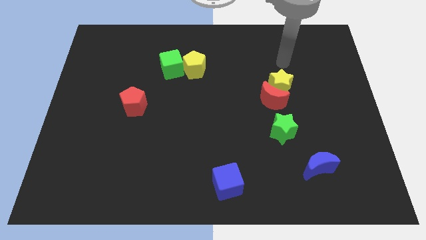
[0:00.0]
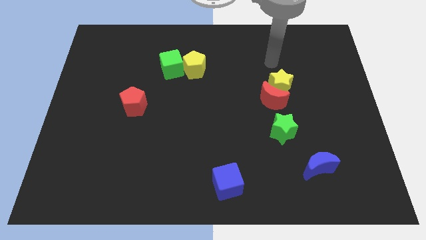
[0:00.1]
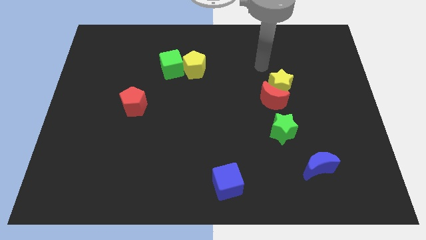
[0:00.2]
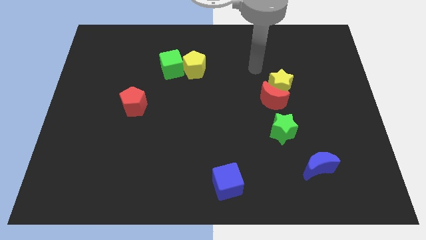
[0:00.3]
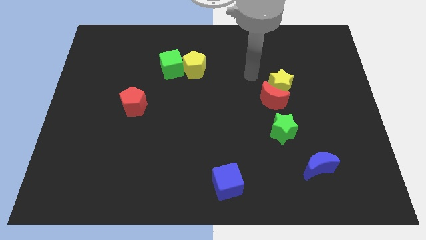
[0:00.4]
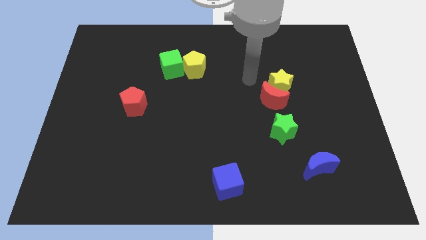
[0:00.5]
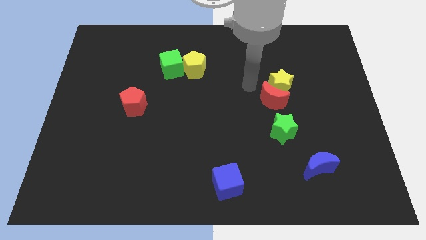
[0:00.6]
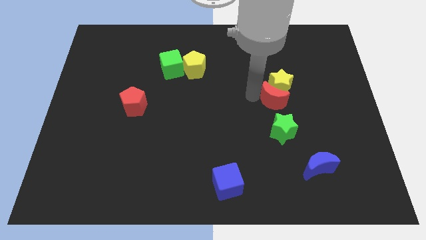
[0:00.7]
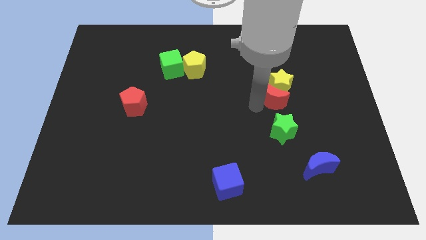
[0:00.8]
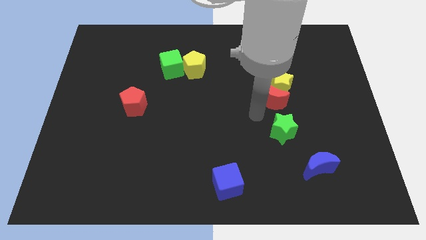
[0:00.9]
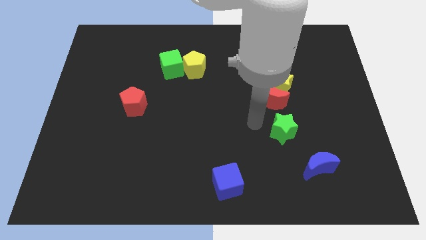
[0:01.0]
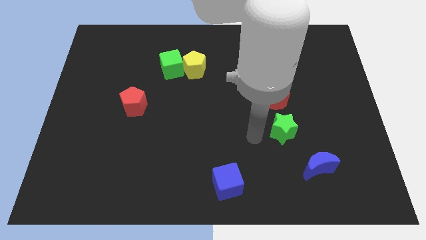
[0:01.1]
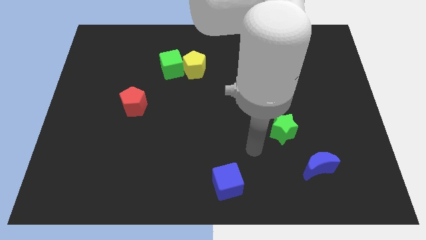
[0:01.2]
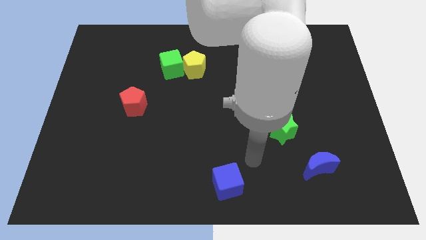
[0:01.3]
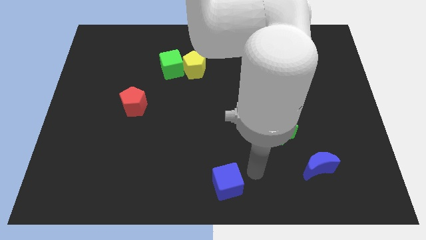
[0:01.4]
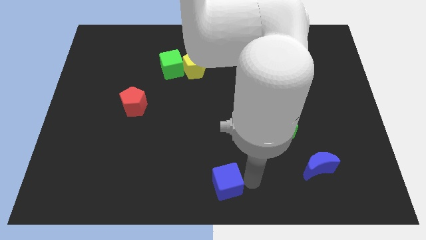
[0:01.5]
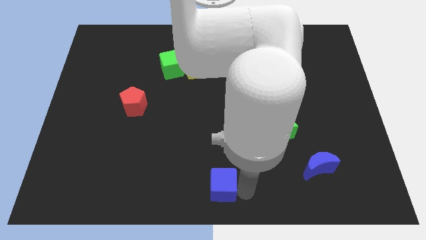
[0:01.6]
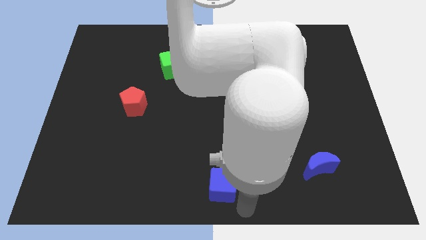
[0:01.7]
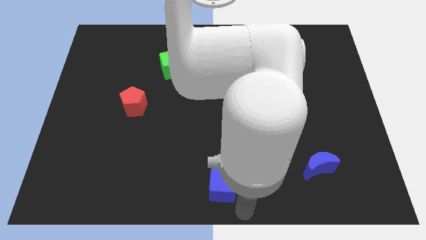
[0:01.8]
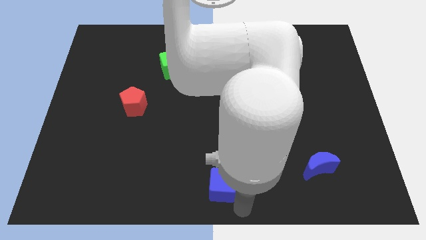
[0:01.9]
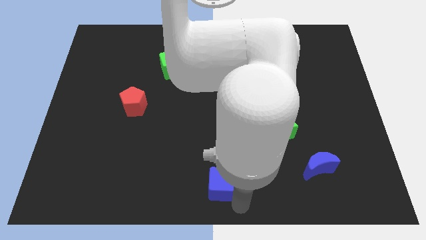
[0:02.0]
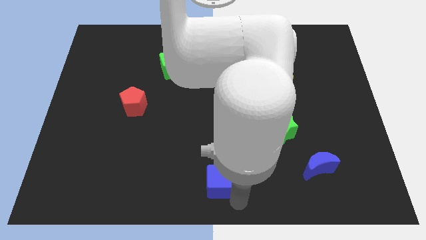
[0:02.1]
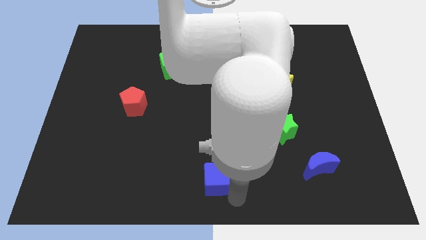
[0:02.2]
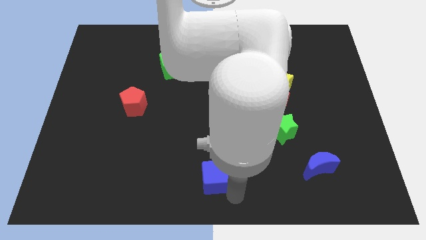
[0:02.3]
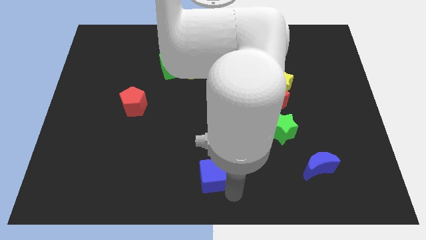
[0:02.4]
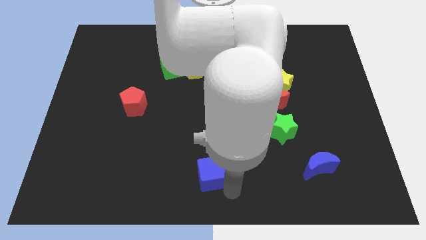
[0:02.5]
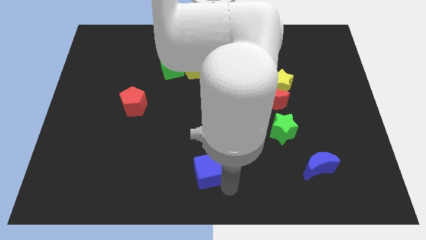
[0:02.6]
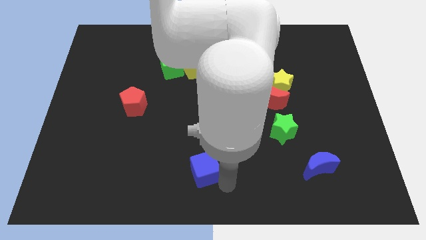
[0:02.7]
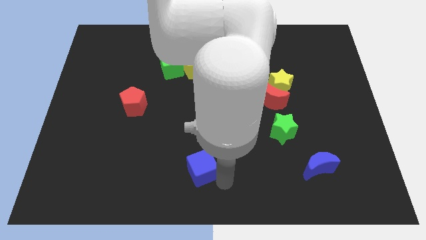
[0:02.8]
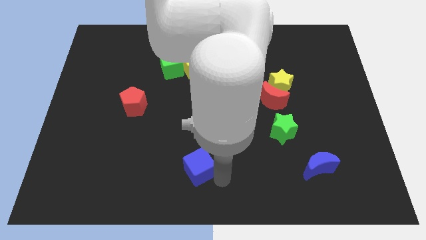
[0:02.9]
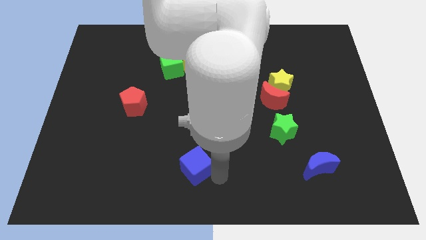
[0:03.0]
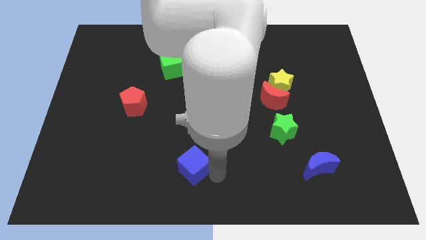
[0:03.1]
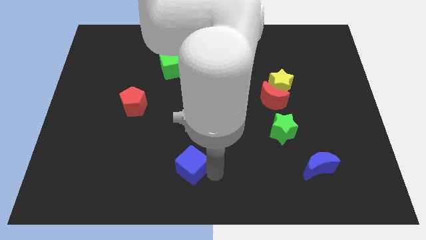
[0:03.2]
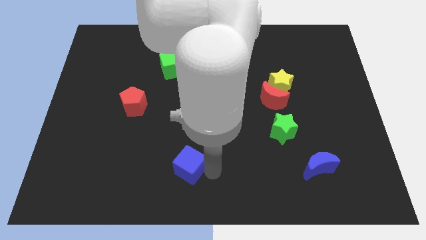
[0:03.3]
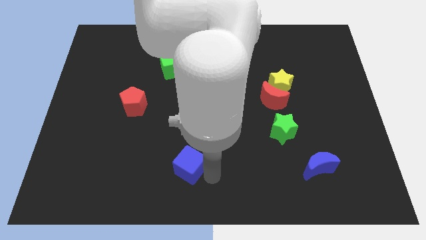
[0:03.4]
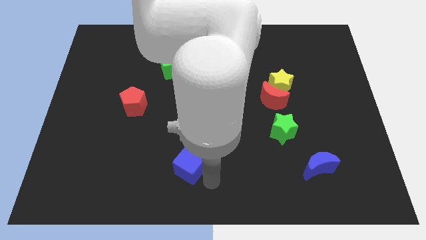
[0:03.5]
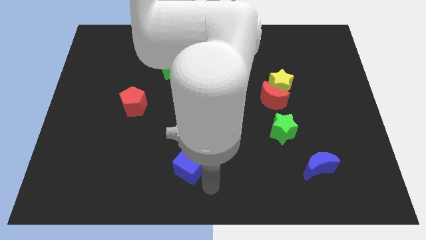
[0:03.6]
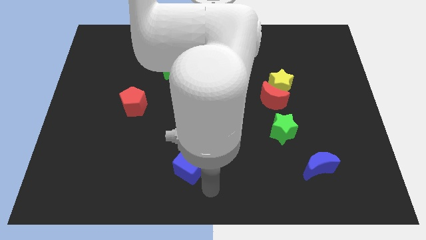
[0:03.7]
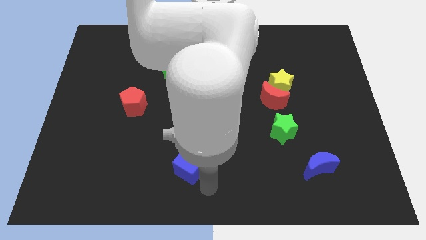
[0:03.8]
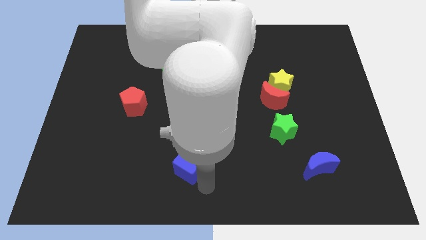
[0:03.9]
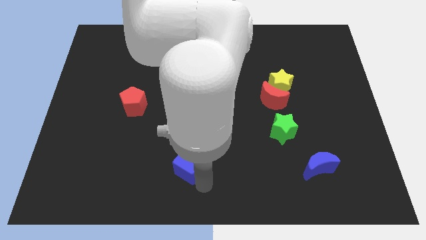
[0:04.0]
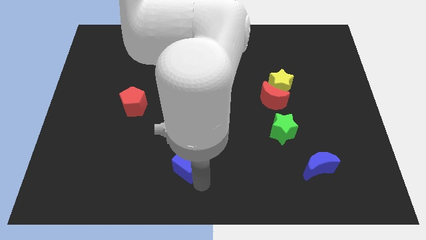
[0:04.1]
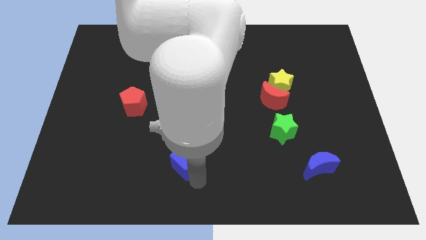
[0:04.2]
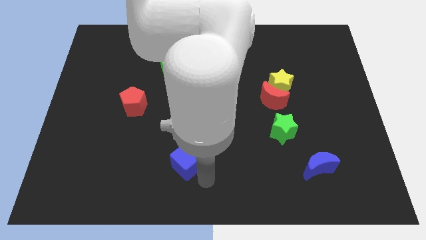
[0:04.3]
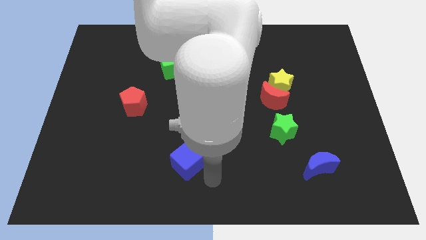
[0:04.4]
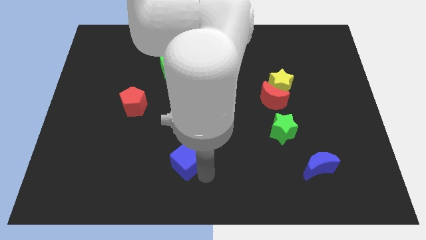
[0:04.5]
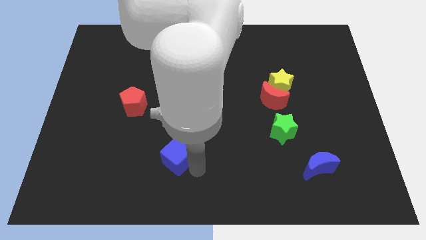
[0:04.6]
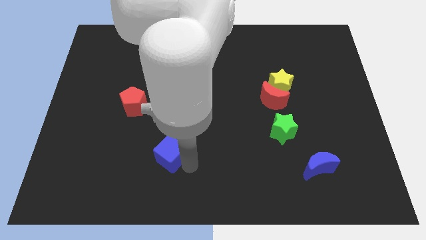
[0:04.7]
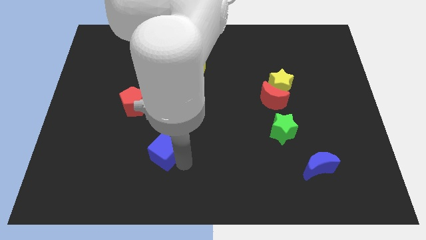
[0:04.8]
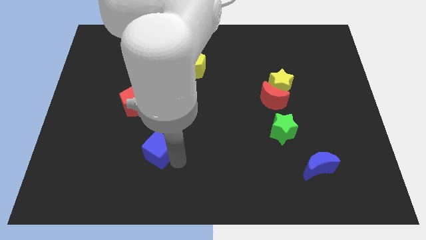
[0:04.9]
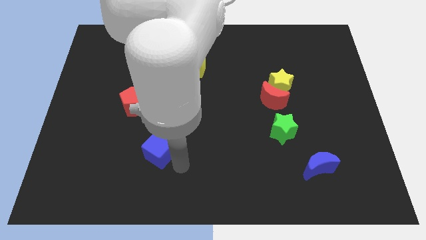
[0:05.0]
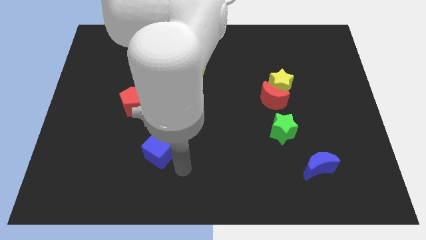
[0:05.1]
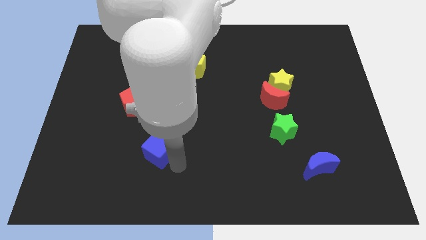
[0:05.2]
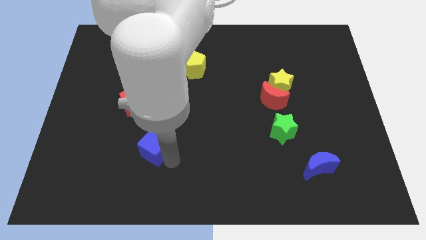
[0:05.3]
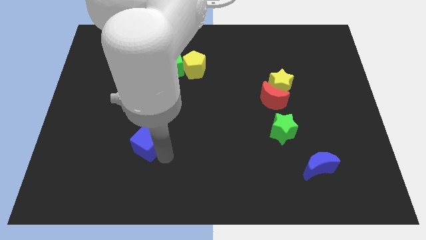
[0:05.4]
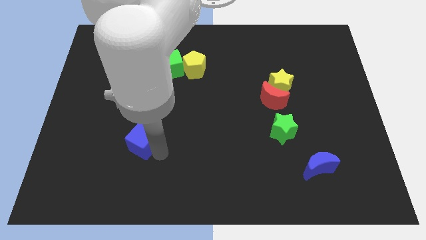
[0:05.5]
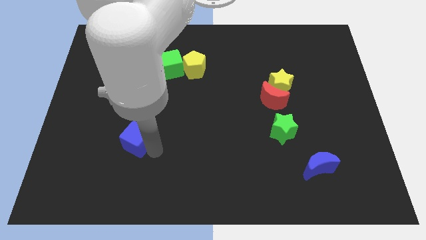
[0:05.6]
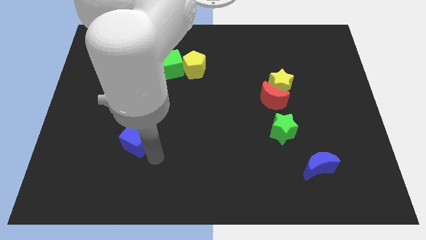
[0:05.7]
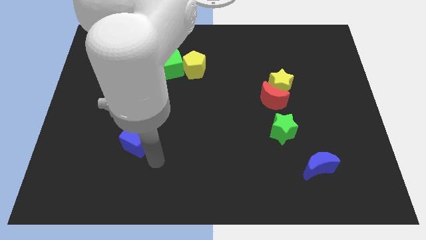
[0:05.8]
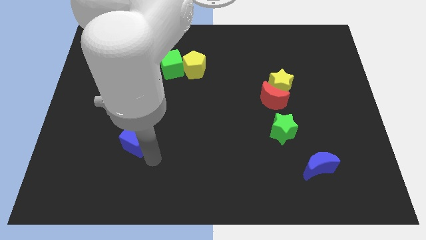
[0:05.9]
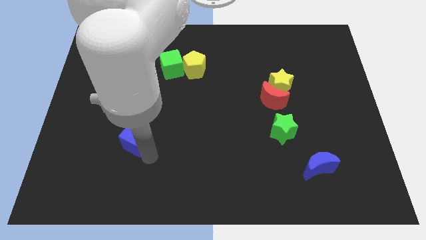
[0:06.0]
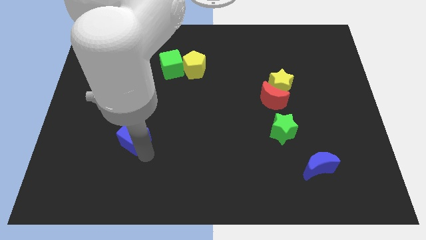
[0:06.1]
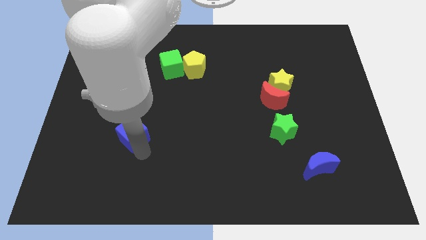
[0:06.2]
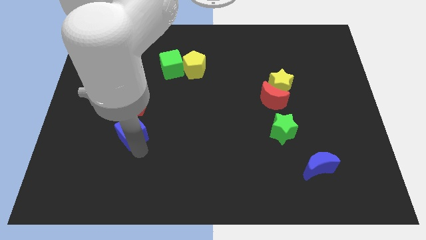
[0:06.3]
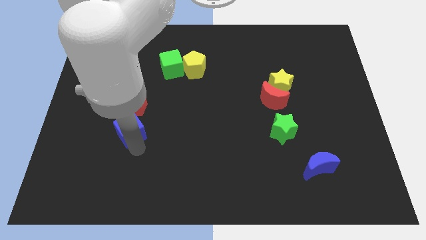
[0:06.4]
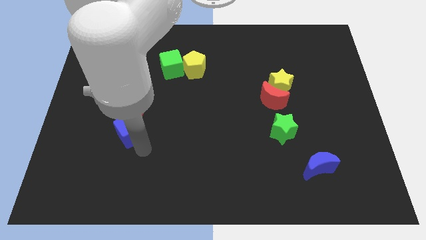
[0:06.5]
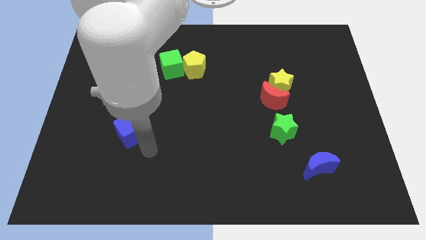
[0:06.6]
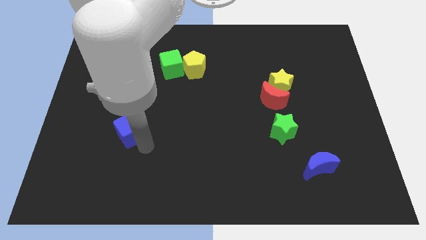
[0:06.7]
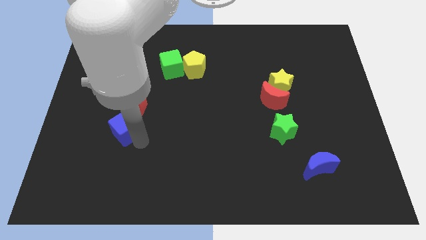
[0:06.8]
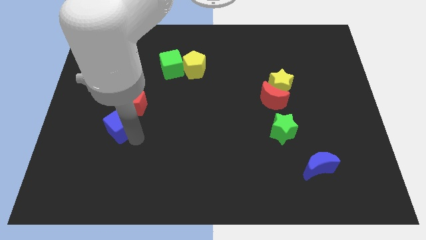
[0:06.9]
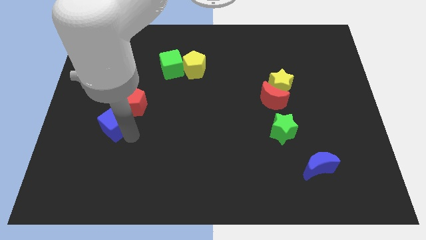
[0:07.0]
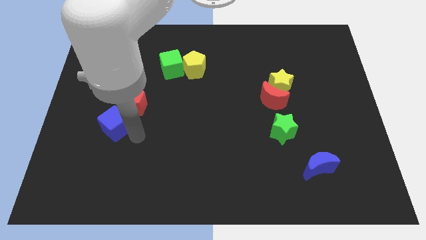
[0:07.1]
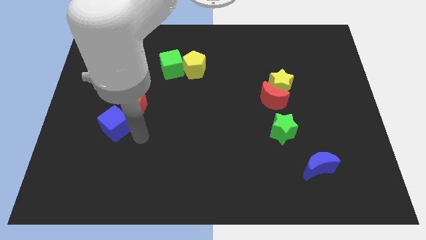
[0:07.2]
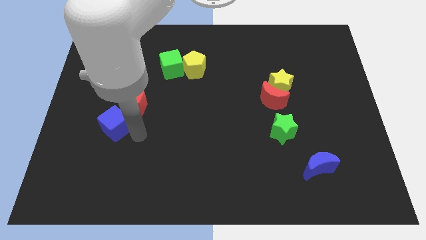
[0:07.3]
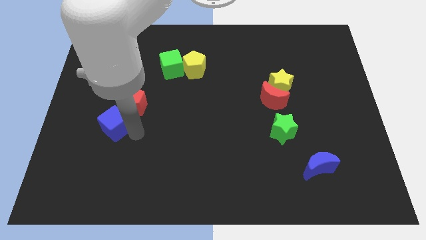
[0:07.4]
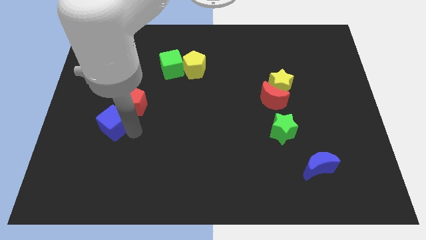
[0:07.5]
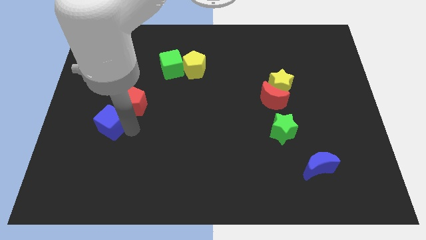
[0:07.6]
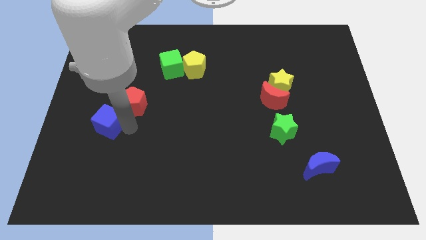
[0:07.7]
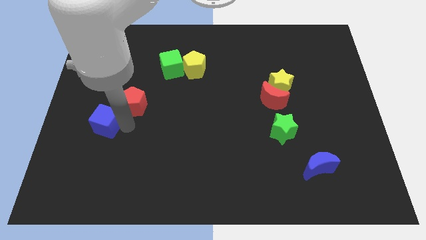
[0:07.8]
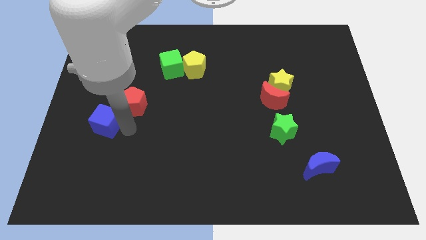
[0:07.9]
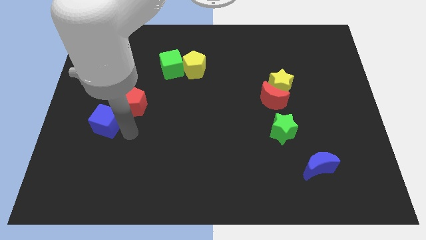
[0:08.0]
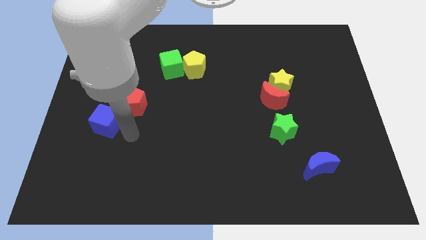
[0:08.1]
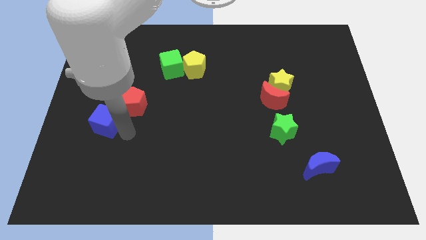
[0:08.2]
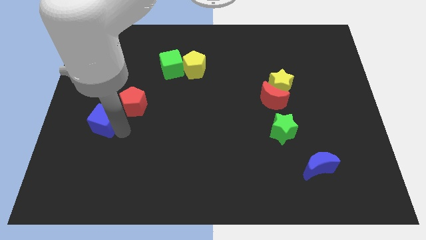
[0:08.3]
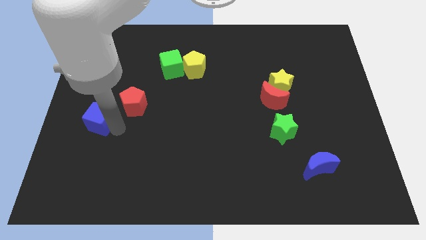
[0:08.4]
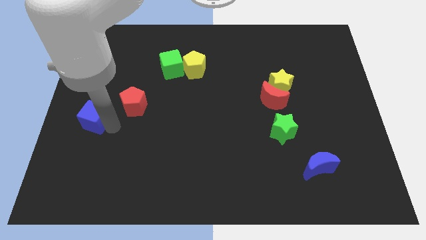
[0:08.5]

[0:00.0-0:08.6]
slide the blue cube to the left side
